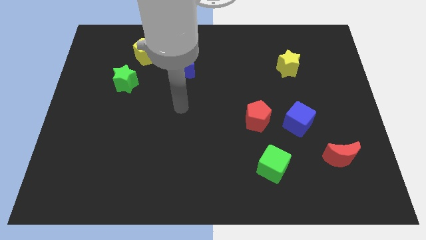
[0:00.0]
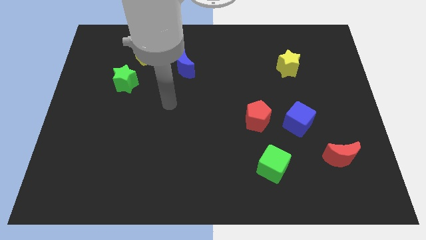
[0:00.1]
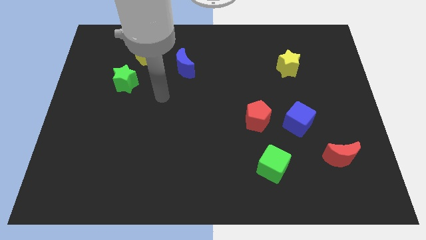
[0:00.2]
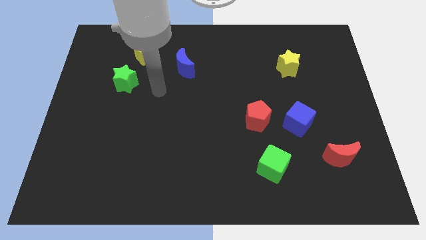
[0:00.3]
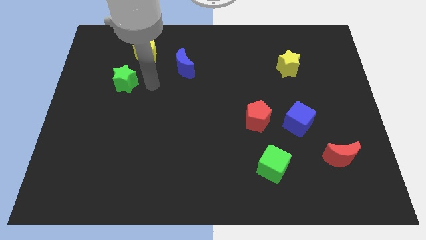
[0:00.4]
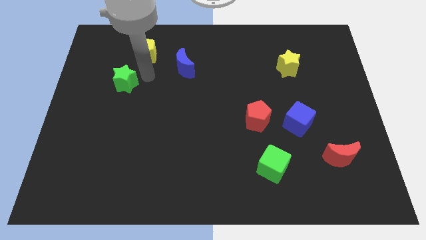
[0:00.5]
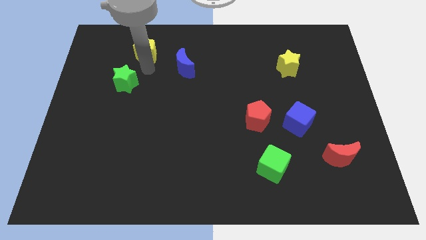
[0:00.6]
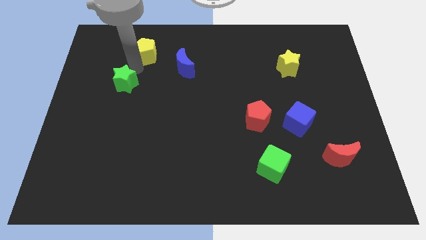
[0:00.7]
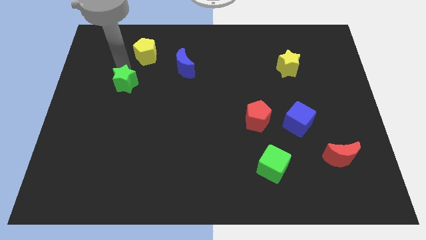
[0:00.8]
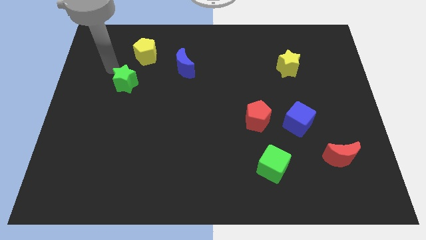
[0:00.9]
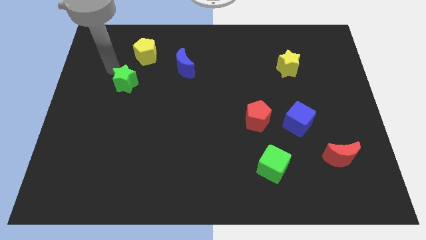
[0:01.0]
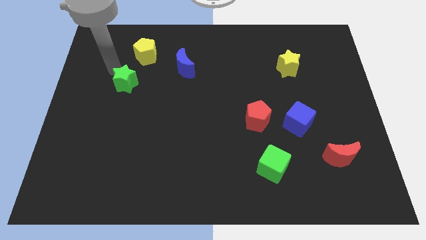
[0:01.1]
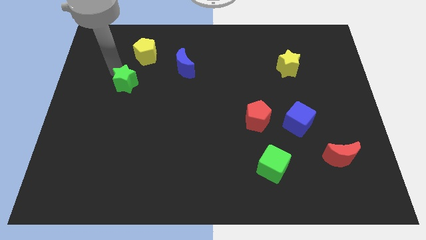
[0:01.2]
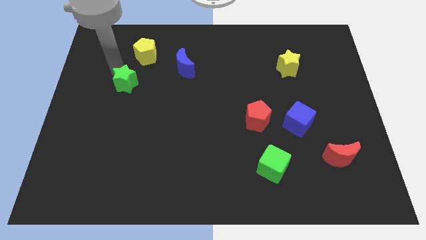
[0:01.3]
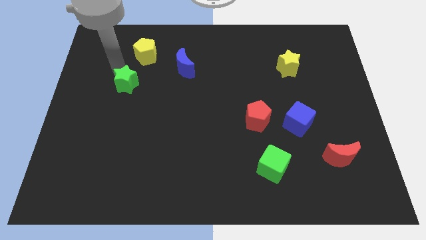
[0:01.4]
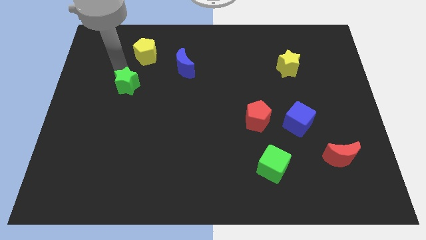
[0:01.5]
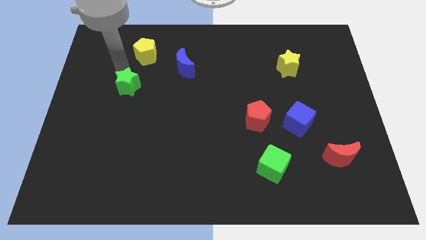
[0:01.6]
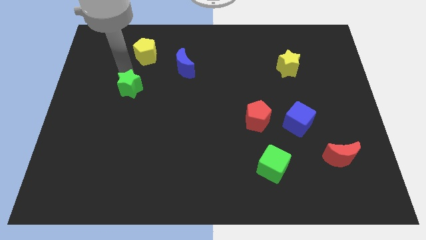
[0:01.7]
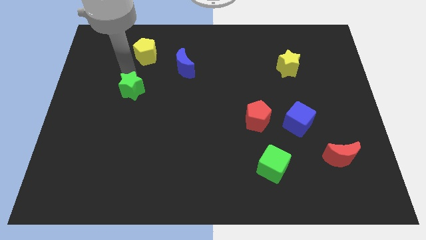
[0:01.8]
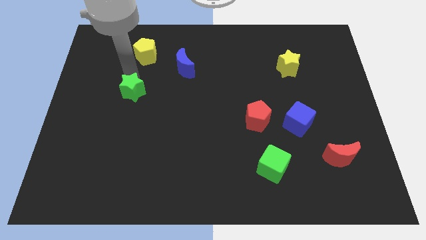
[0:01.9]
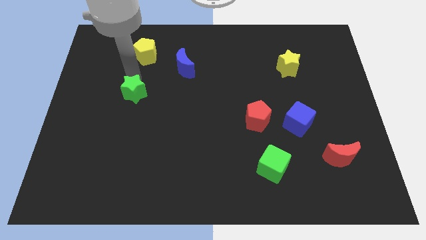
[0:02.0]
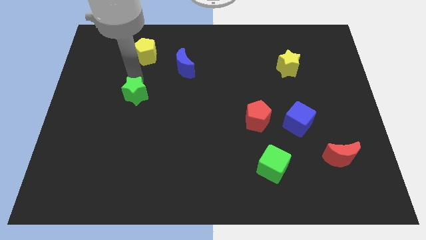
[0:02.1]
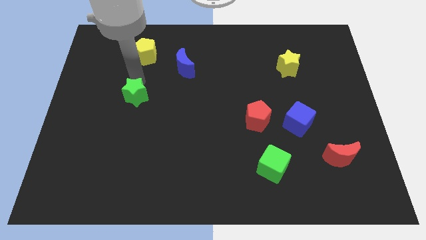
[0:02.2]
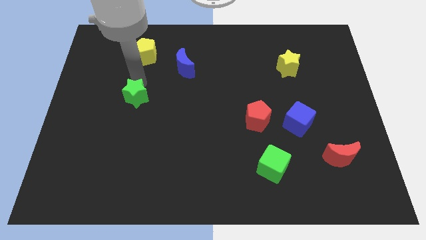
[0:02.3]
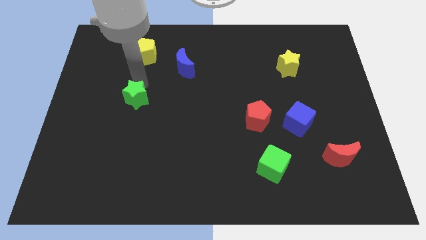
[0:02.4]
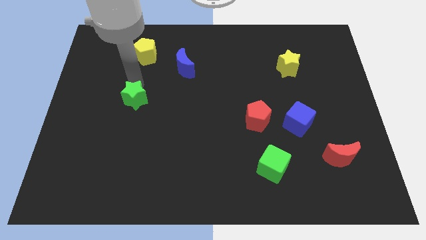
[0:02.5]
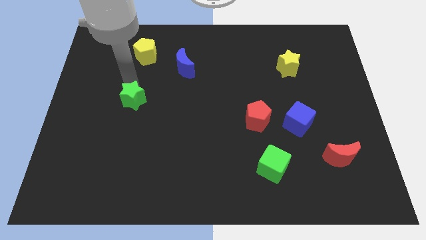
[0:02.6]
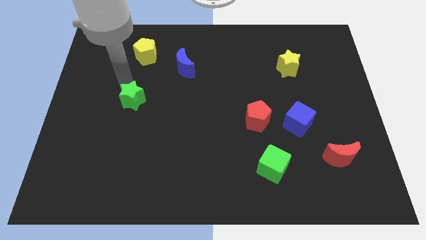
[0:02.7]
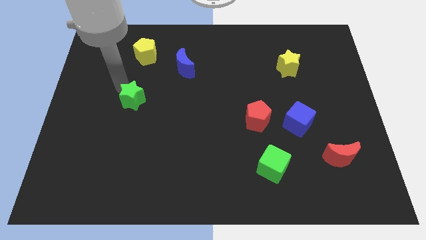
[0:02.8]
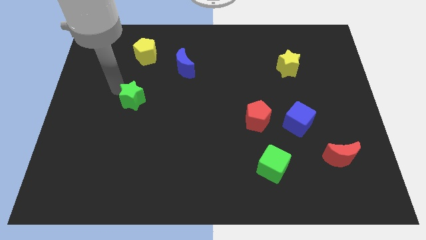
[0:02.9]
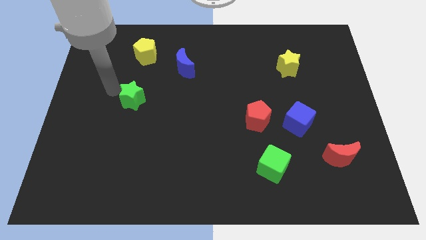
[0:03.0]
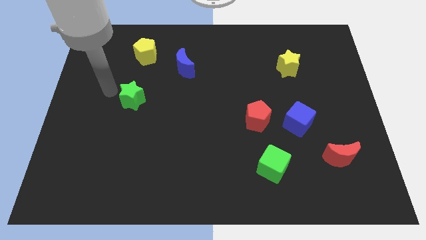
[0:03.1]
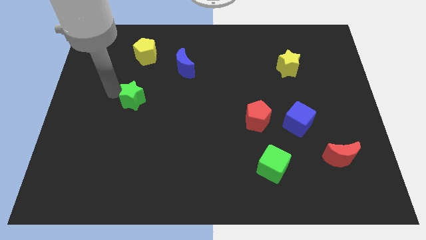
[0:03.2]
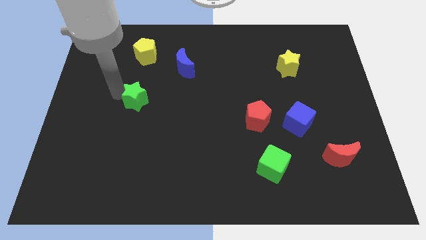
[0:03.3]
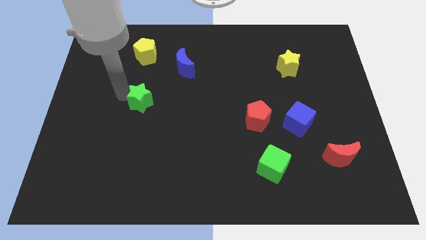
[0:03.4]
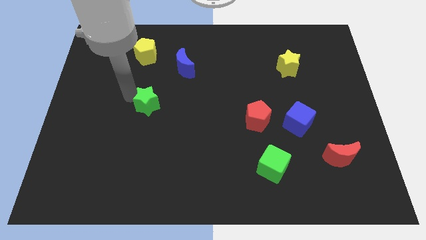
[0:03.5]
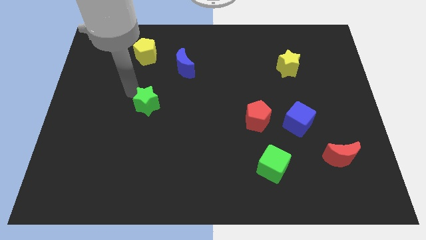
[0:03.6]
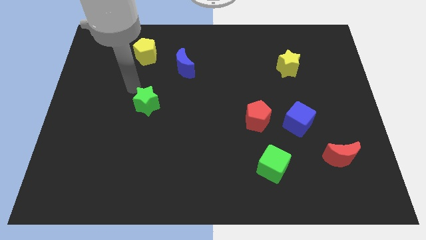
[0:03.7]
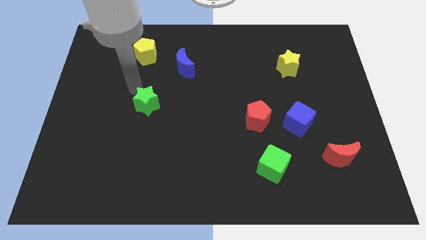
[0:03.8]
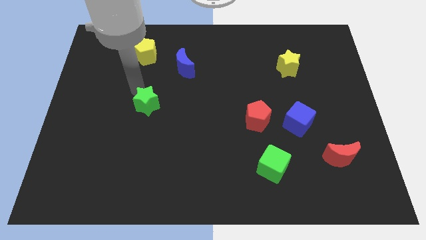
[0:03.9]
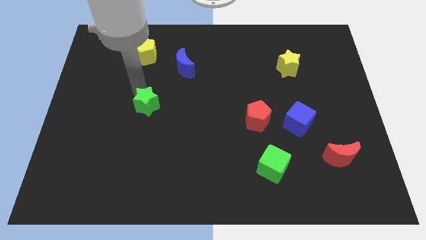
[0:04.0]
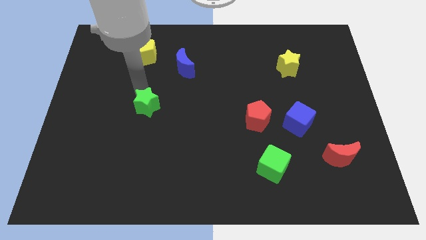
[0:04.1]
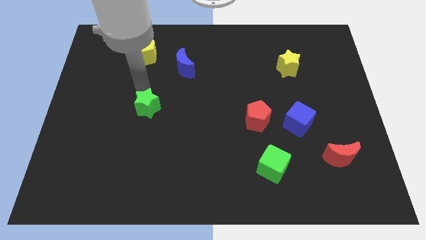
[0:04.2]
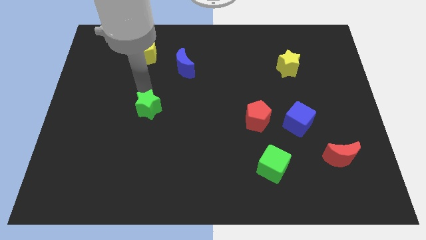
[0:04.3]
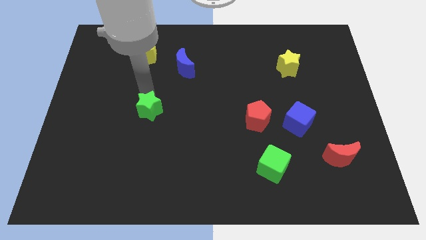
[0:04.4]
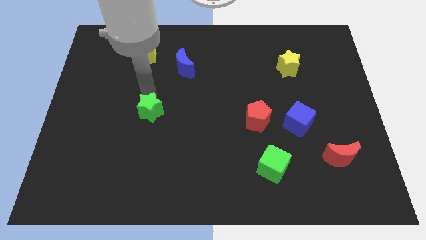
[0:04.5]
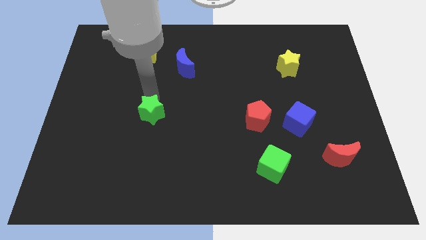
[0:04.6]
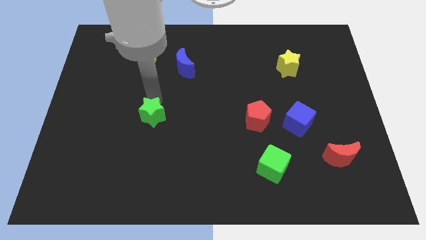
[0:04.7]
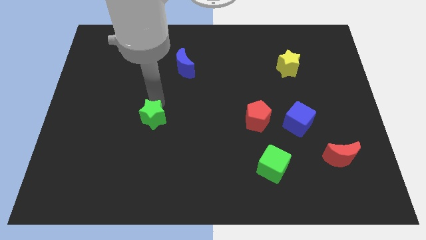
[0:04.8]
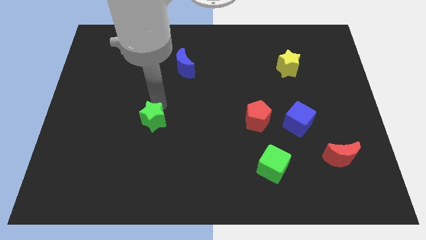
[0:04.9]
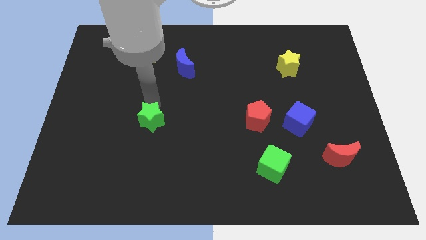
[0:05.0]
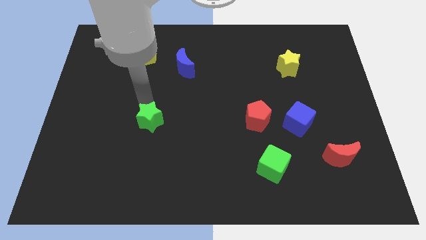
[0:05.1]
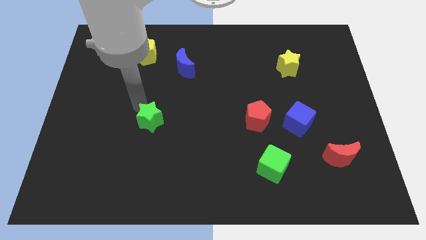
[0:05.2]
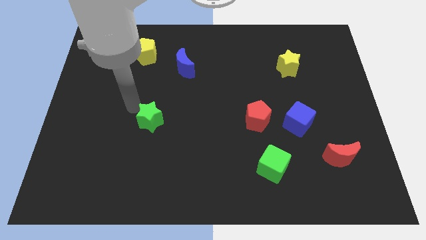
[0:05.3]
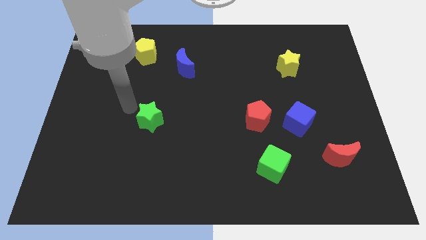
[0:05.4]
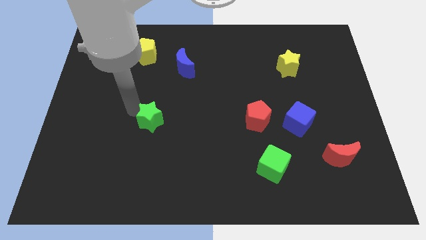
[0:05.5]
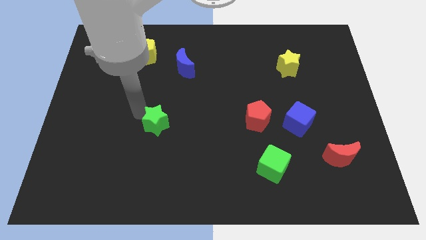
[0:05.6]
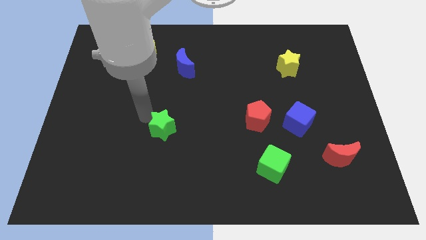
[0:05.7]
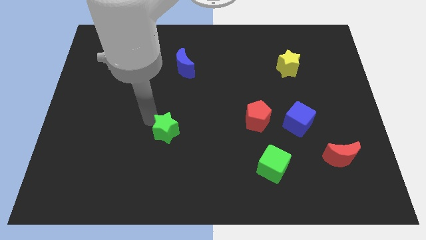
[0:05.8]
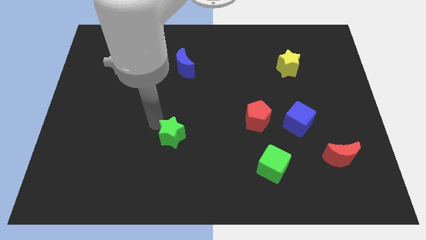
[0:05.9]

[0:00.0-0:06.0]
slide the green star downwards and to the right diagonally

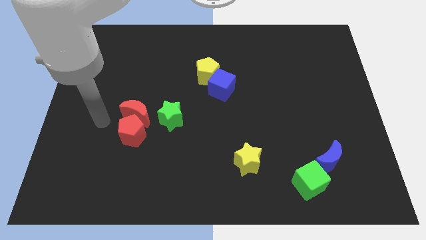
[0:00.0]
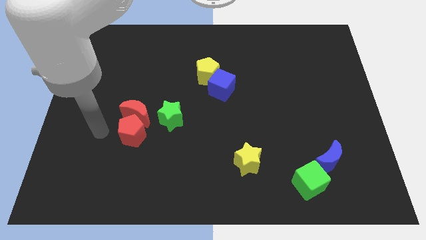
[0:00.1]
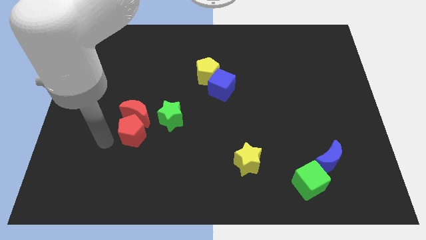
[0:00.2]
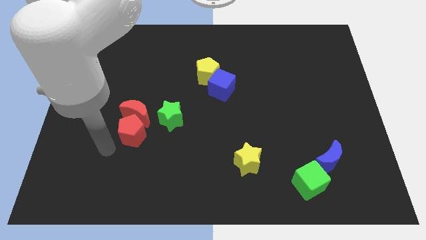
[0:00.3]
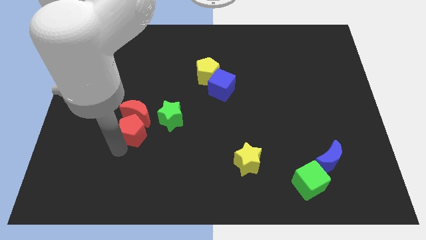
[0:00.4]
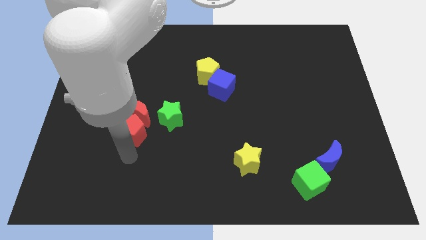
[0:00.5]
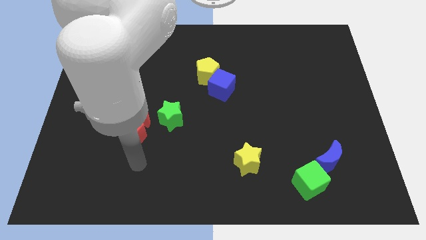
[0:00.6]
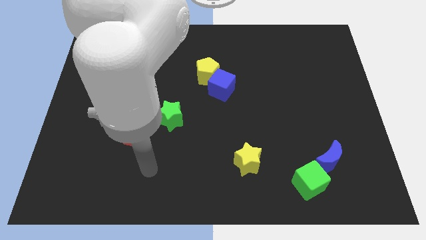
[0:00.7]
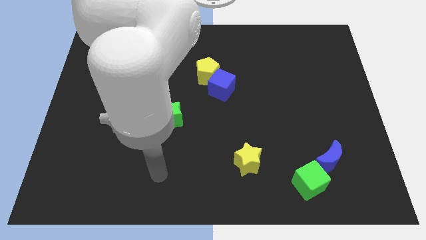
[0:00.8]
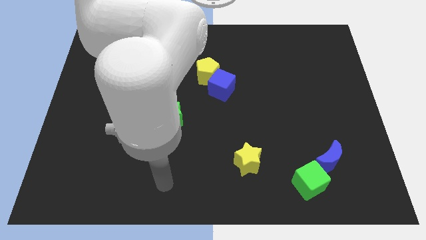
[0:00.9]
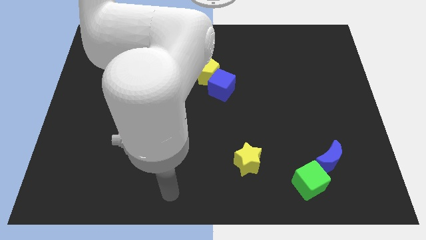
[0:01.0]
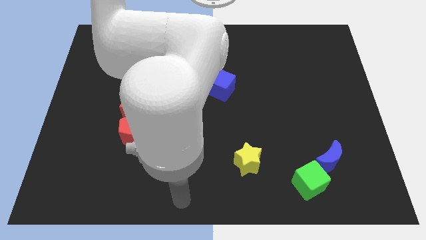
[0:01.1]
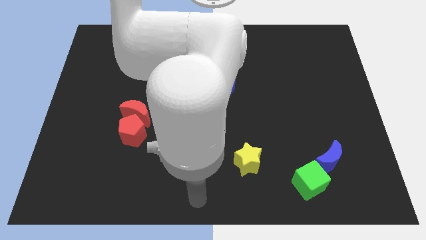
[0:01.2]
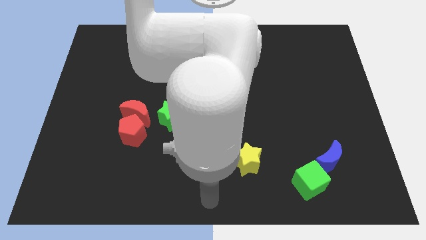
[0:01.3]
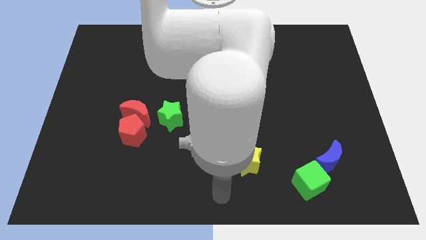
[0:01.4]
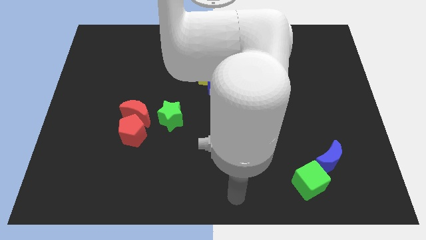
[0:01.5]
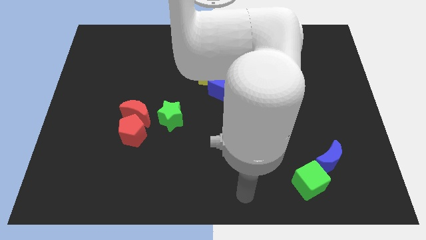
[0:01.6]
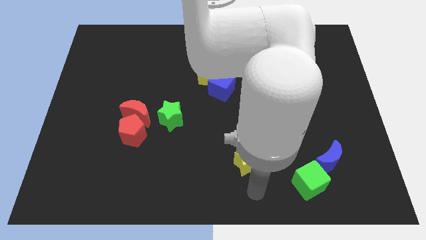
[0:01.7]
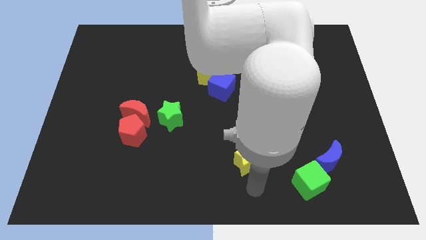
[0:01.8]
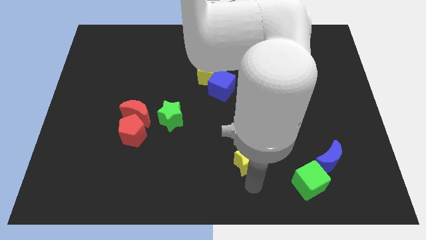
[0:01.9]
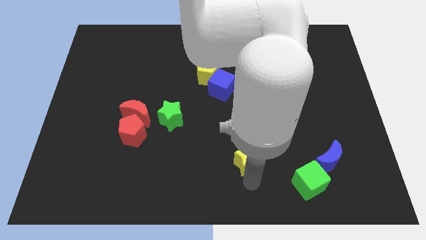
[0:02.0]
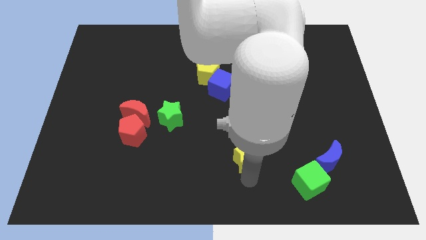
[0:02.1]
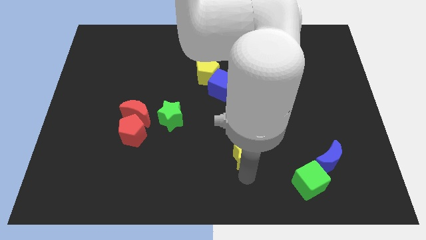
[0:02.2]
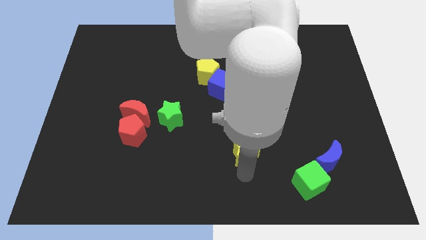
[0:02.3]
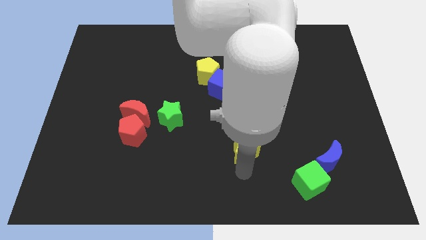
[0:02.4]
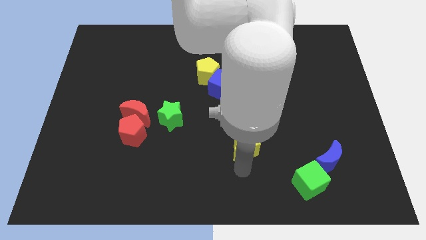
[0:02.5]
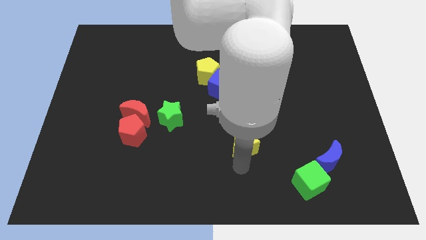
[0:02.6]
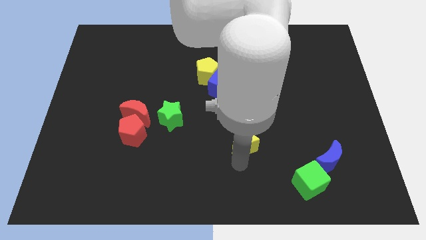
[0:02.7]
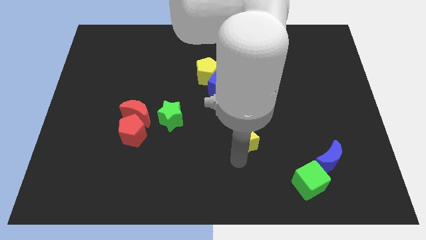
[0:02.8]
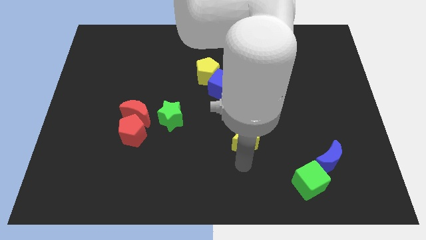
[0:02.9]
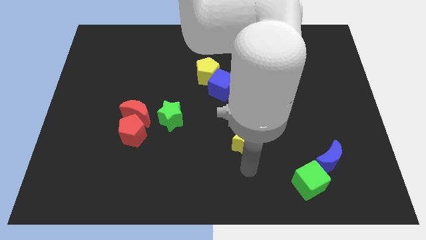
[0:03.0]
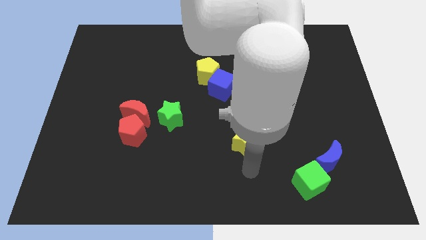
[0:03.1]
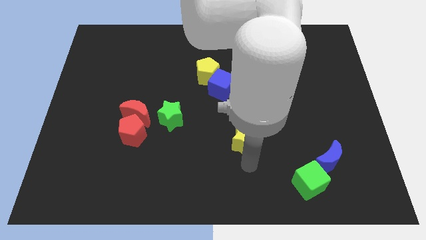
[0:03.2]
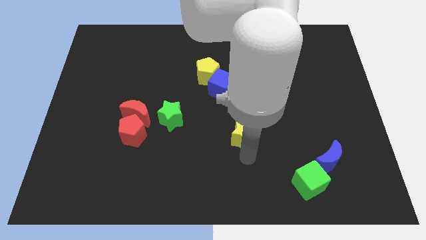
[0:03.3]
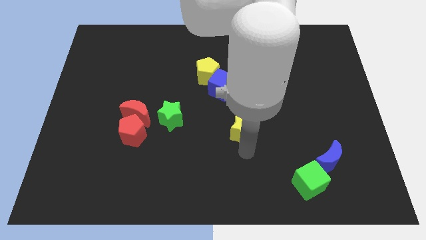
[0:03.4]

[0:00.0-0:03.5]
move the yellow star a little bit upwards
